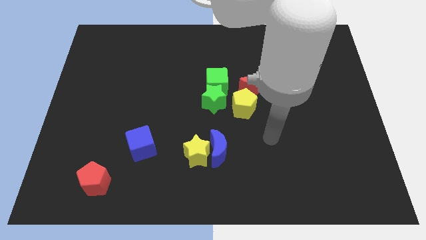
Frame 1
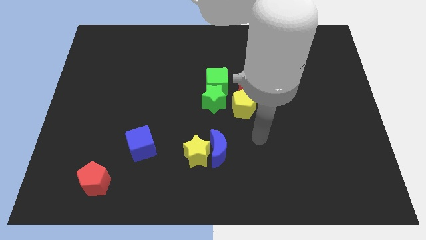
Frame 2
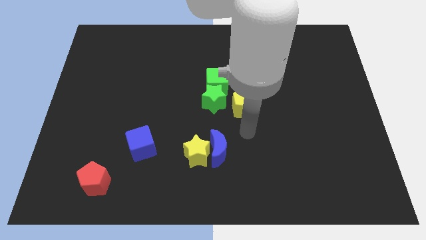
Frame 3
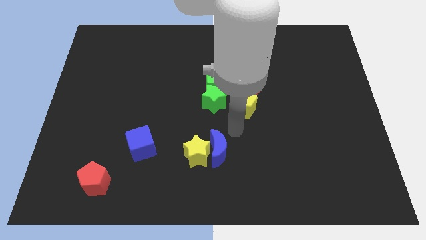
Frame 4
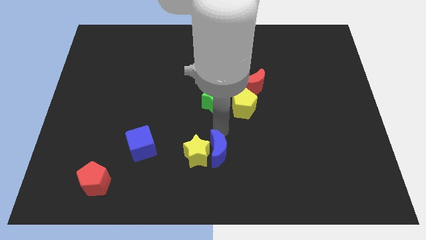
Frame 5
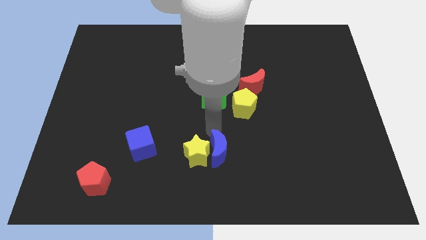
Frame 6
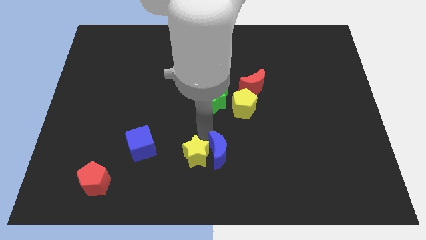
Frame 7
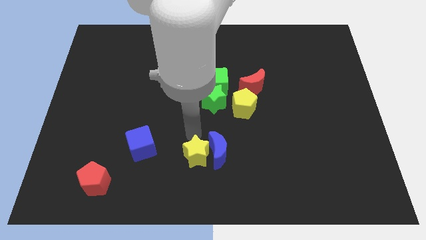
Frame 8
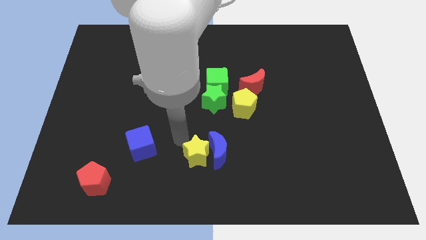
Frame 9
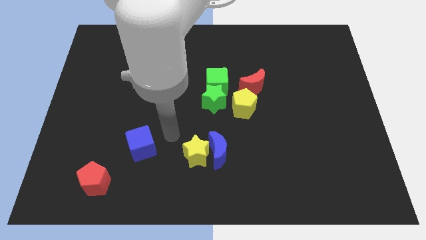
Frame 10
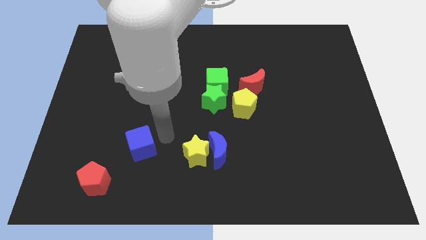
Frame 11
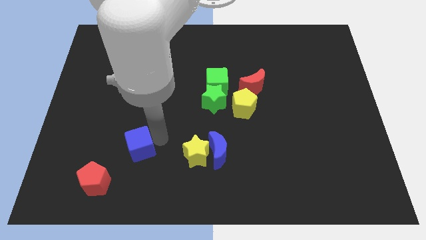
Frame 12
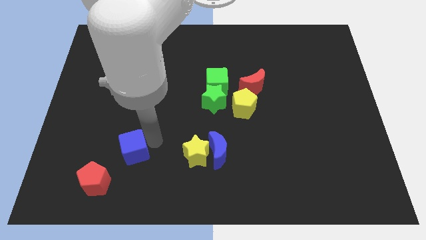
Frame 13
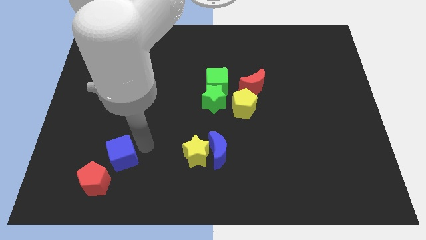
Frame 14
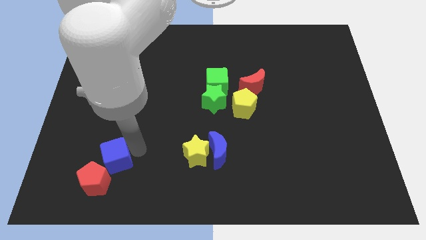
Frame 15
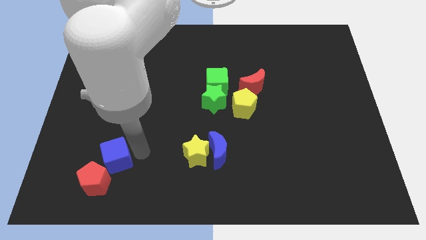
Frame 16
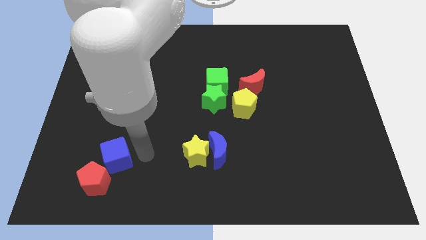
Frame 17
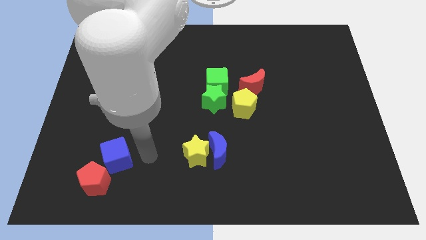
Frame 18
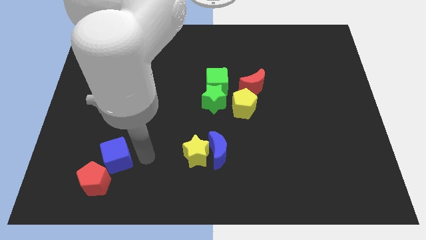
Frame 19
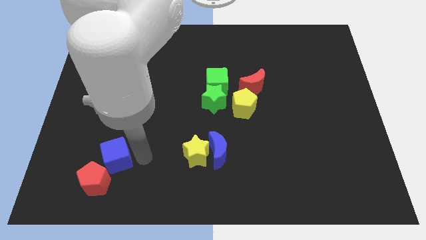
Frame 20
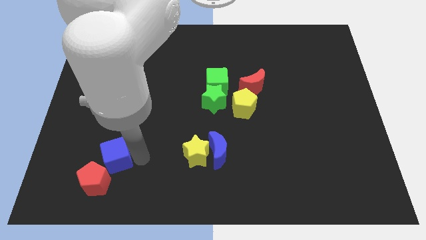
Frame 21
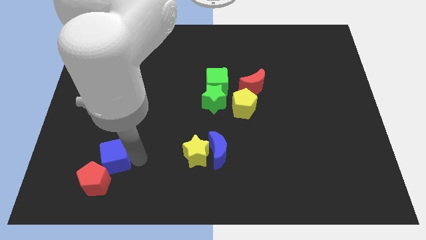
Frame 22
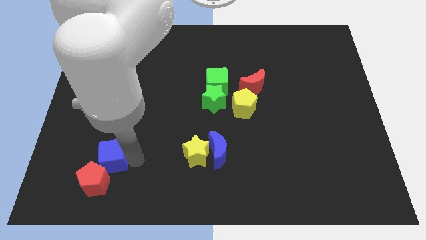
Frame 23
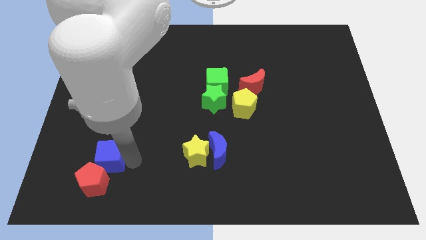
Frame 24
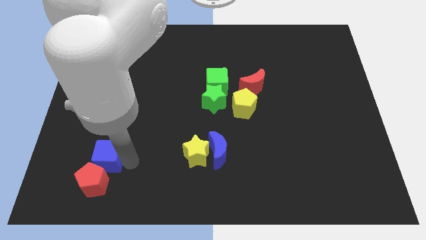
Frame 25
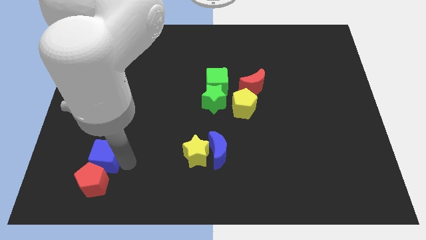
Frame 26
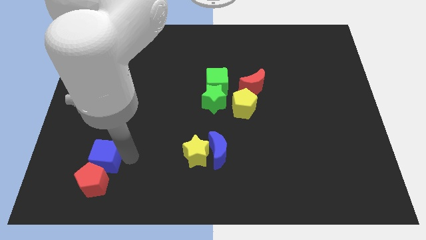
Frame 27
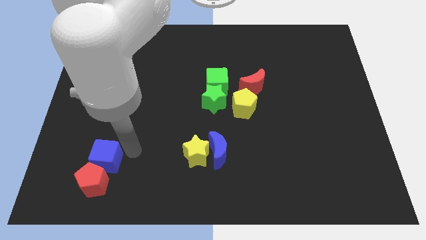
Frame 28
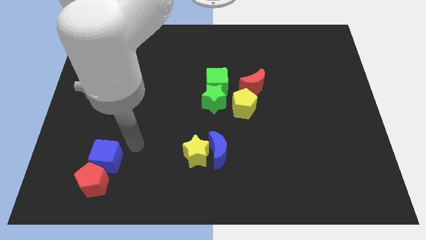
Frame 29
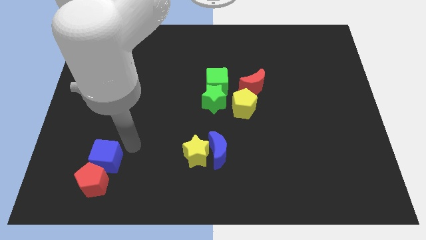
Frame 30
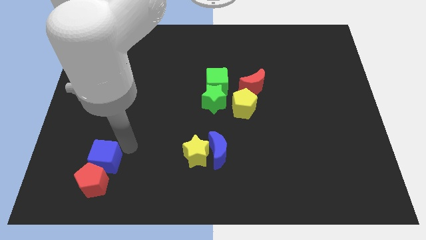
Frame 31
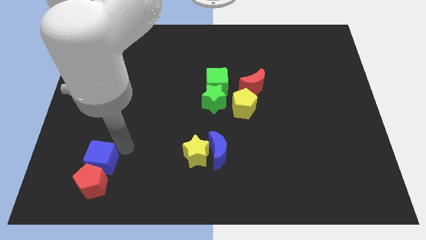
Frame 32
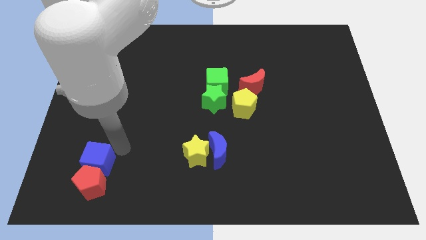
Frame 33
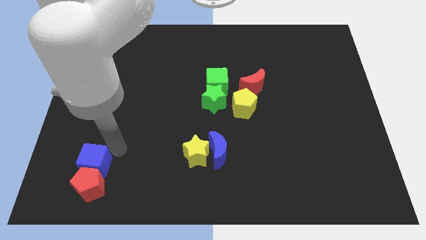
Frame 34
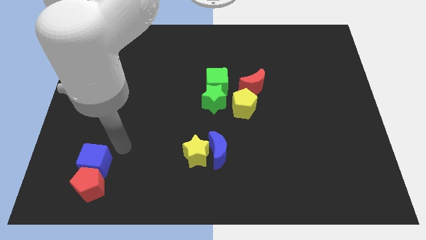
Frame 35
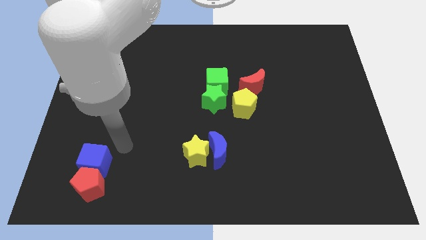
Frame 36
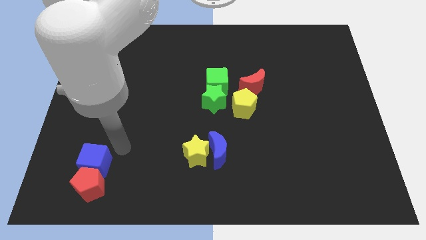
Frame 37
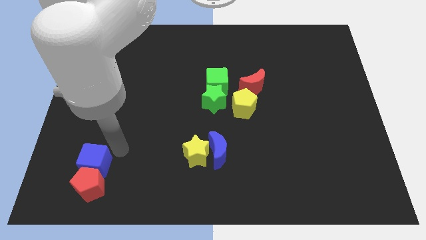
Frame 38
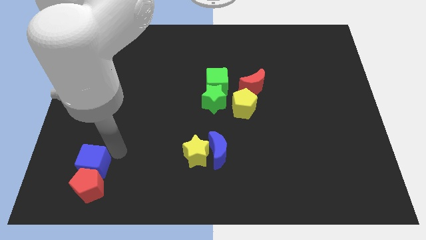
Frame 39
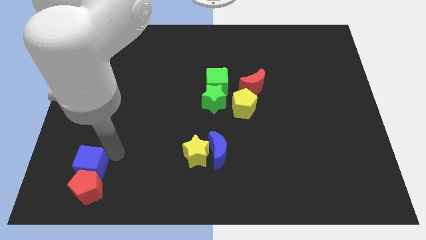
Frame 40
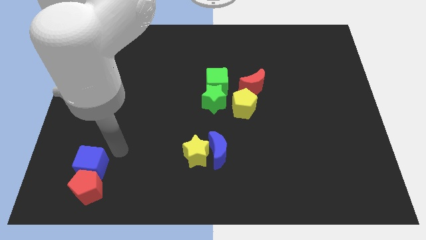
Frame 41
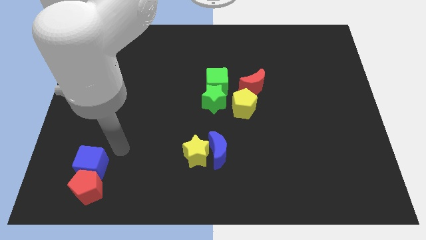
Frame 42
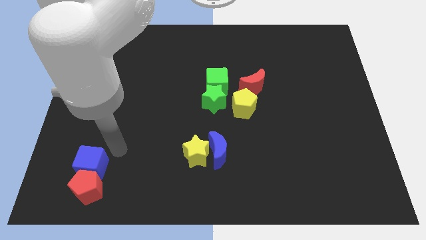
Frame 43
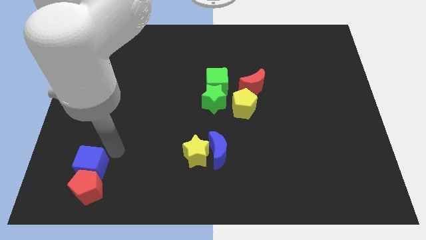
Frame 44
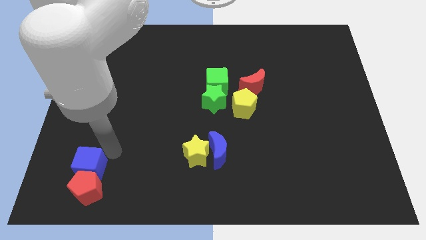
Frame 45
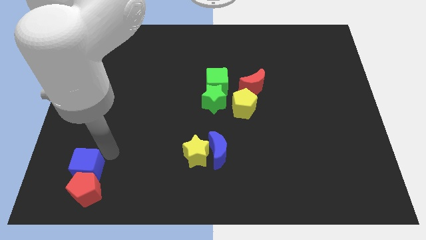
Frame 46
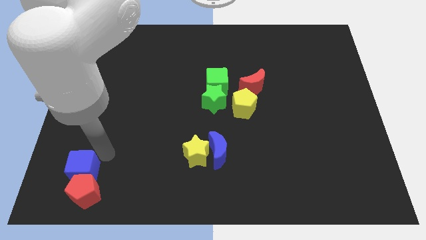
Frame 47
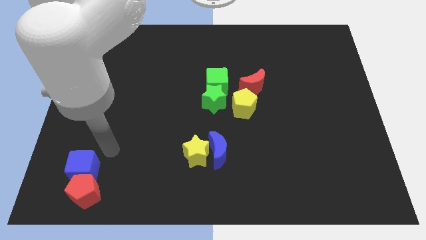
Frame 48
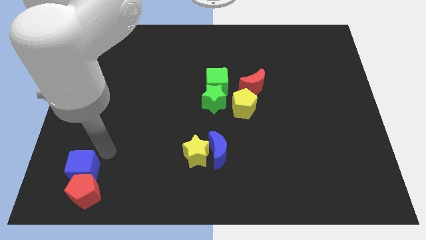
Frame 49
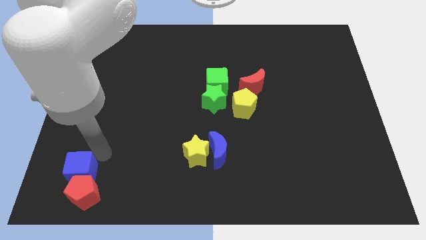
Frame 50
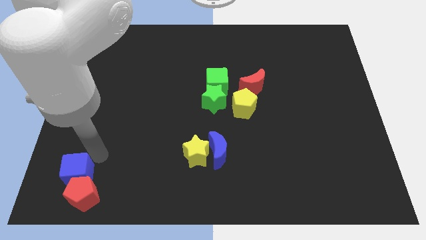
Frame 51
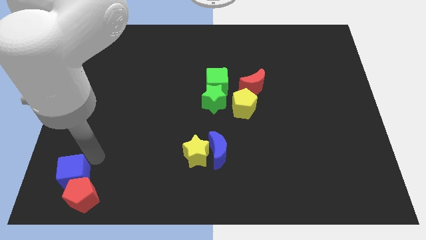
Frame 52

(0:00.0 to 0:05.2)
slide the blue cube to the bottom left of the board

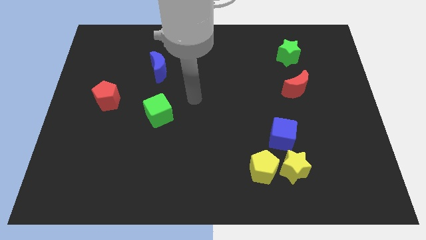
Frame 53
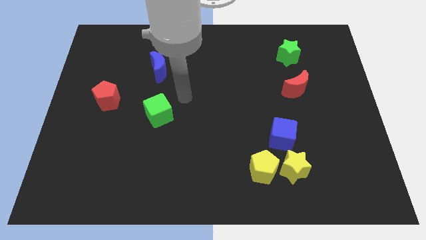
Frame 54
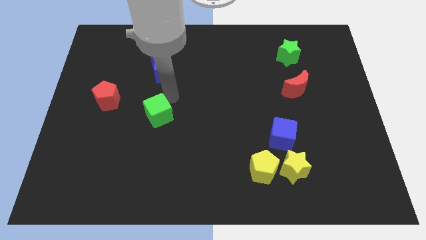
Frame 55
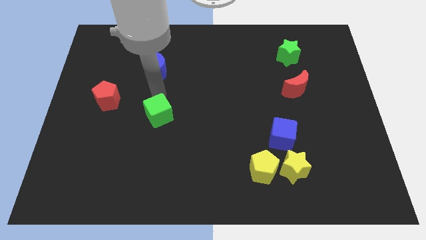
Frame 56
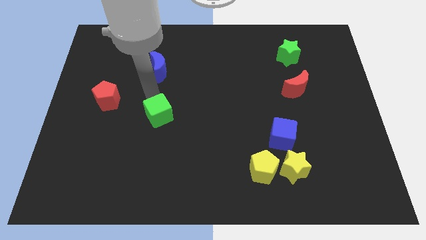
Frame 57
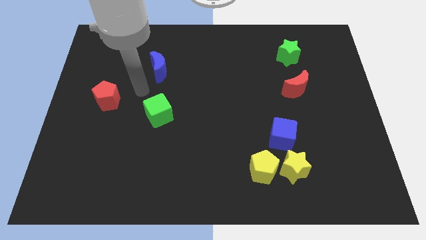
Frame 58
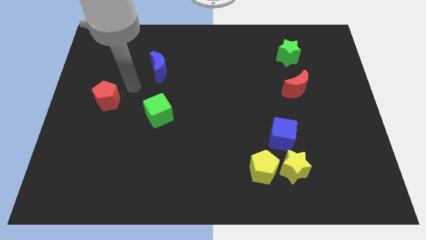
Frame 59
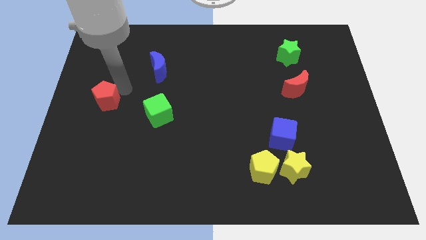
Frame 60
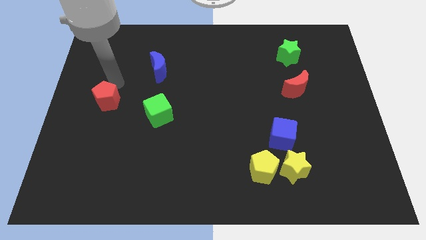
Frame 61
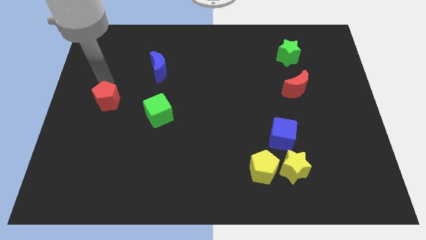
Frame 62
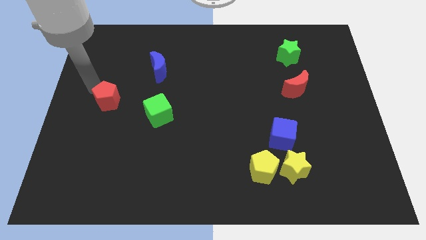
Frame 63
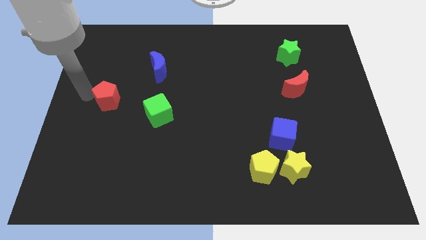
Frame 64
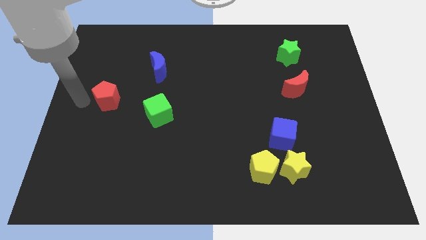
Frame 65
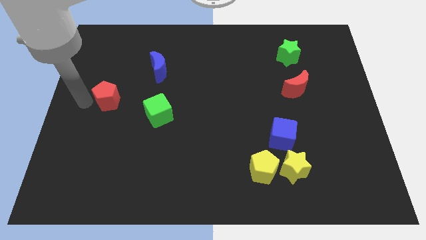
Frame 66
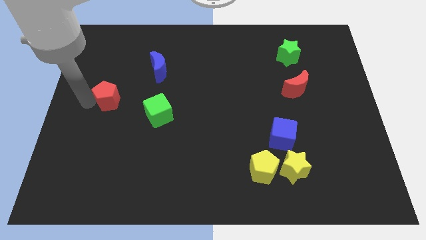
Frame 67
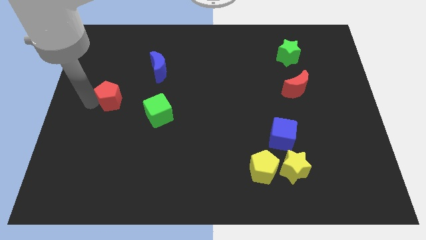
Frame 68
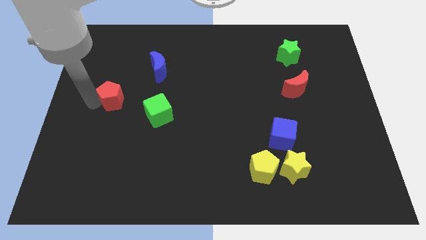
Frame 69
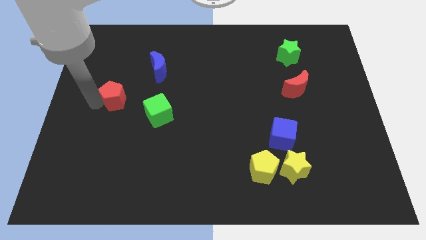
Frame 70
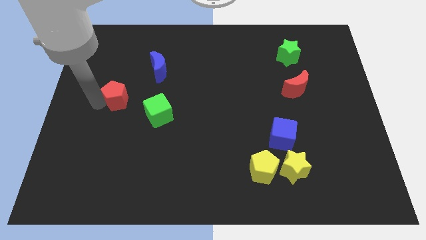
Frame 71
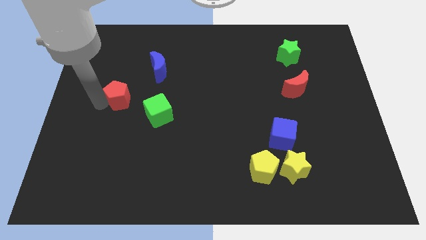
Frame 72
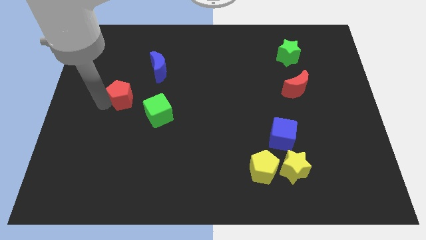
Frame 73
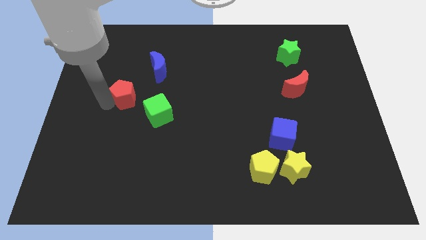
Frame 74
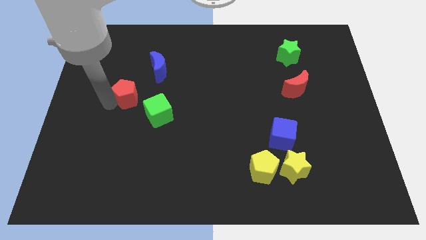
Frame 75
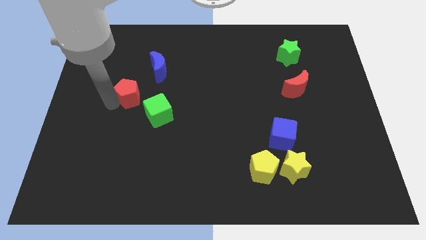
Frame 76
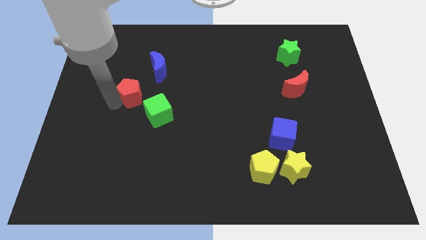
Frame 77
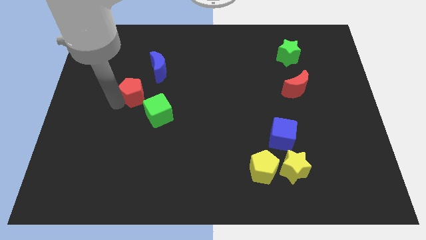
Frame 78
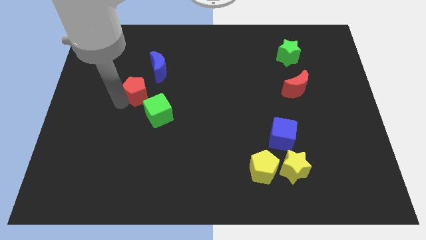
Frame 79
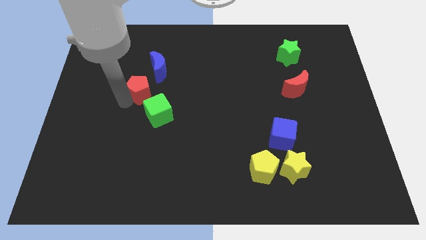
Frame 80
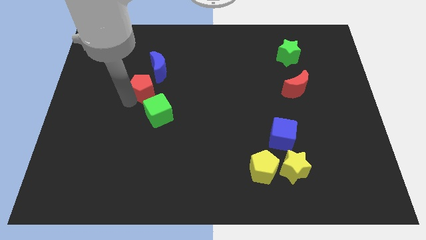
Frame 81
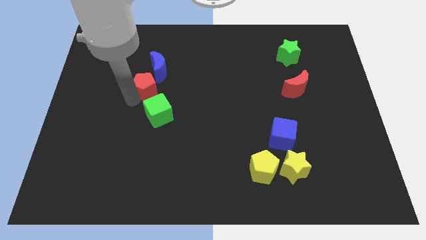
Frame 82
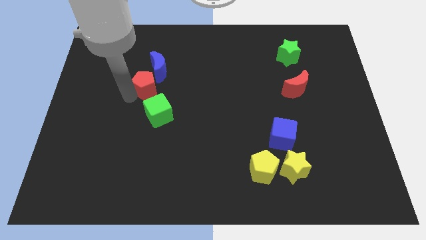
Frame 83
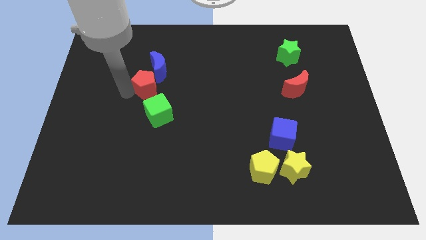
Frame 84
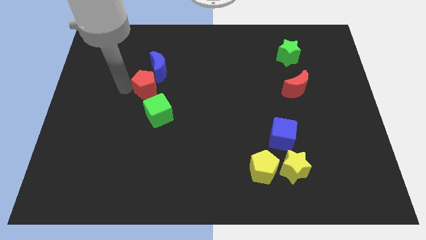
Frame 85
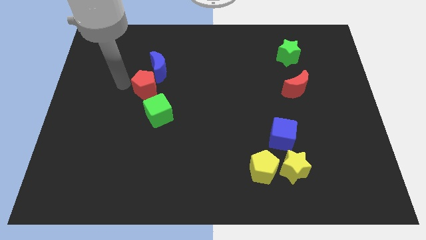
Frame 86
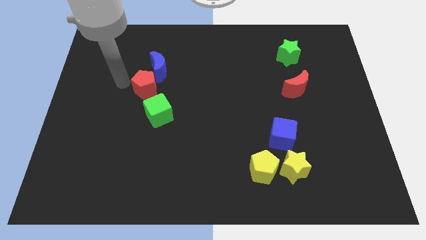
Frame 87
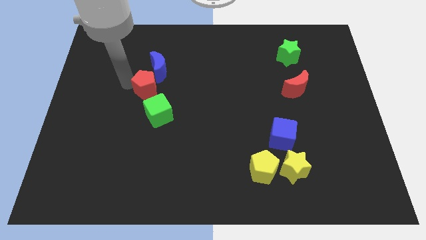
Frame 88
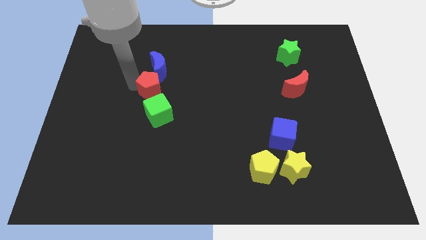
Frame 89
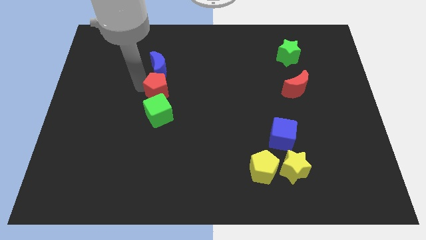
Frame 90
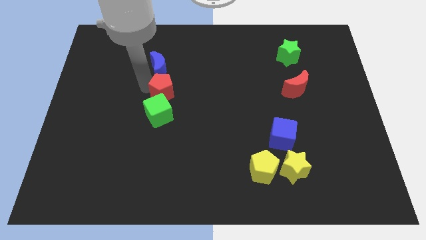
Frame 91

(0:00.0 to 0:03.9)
put the red pentagon to the middle
